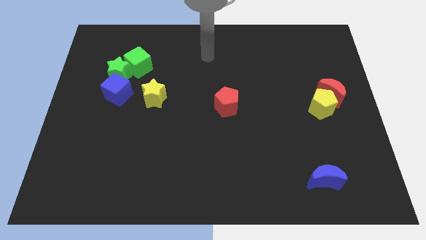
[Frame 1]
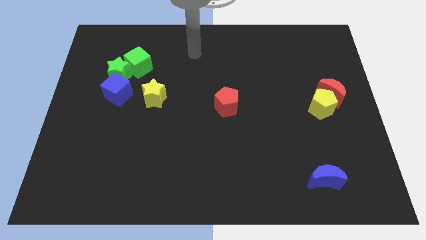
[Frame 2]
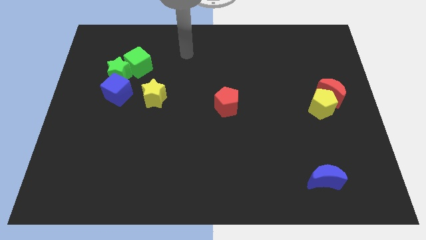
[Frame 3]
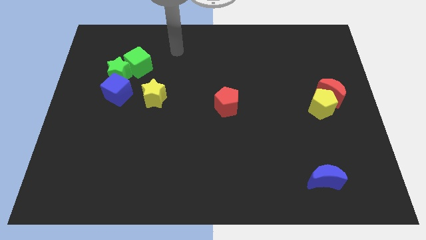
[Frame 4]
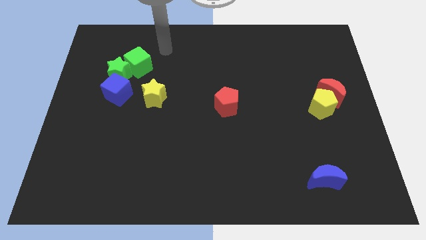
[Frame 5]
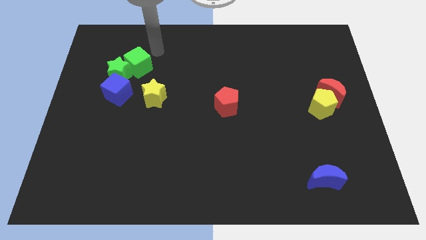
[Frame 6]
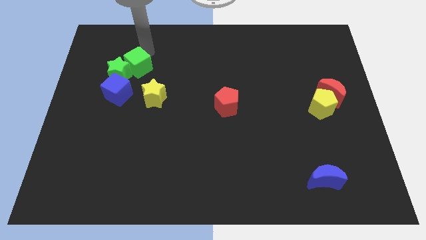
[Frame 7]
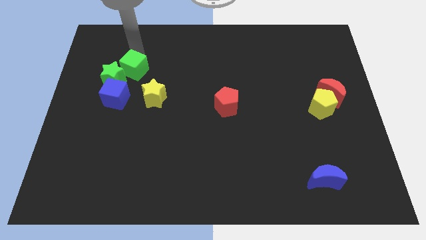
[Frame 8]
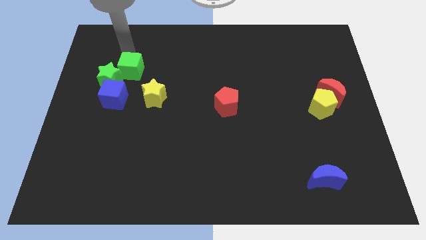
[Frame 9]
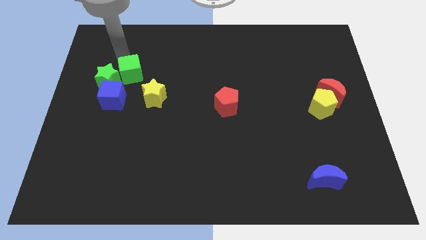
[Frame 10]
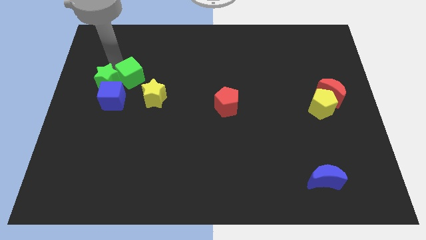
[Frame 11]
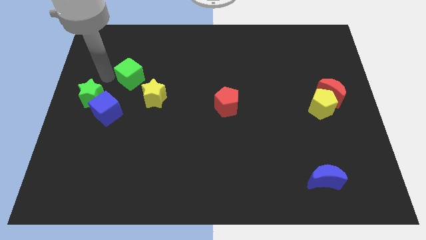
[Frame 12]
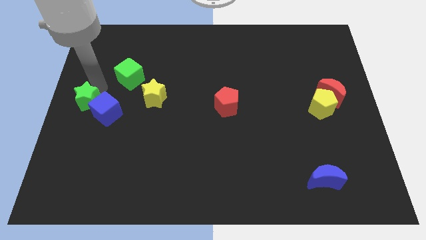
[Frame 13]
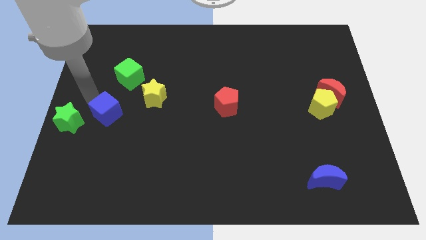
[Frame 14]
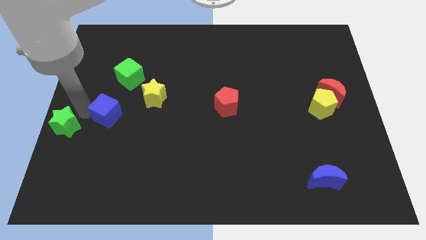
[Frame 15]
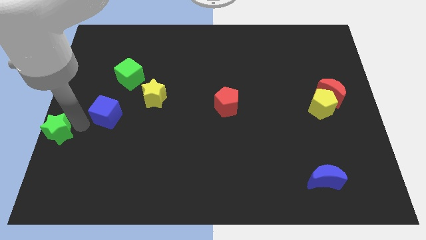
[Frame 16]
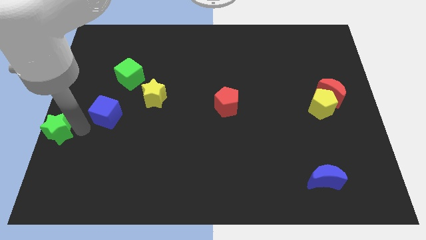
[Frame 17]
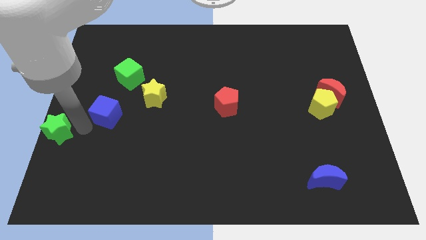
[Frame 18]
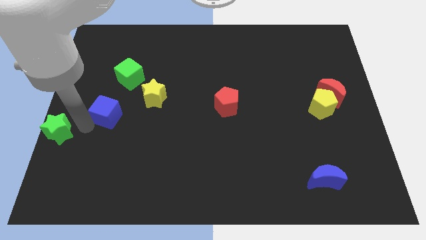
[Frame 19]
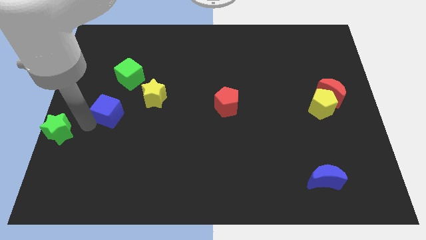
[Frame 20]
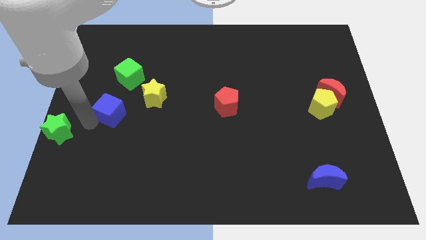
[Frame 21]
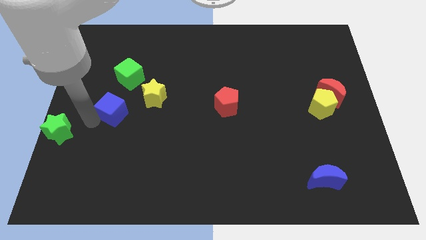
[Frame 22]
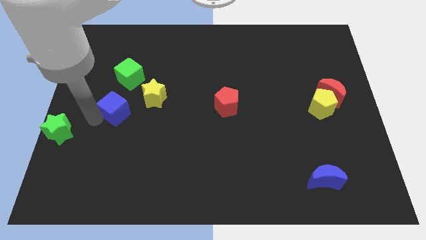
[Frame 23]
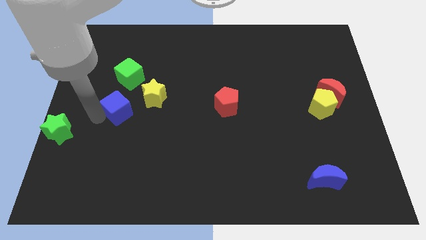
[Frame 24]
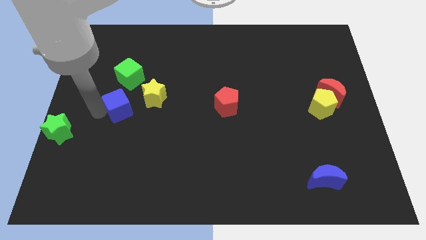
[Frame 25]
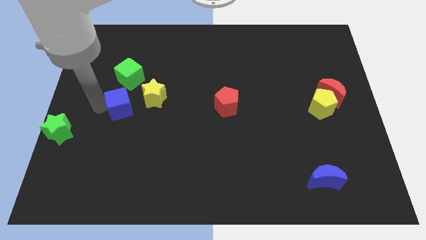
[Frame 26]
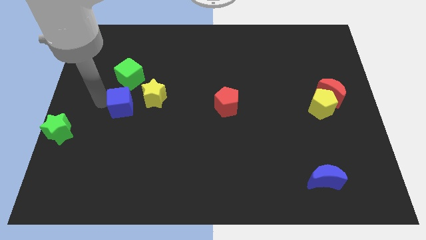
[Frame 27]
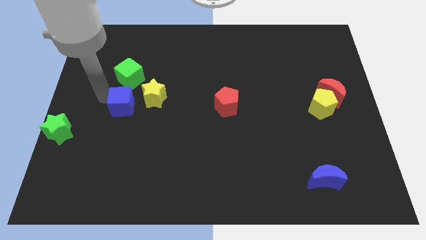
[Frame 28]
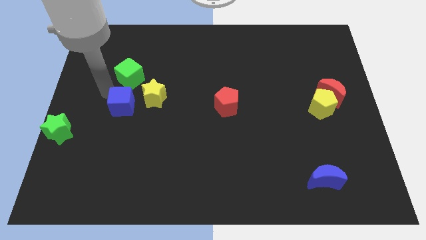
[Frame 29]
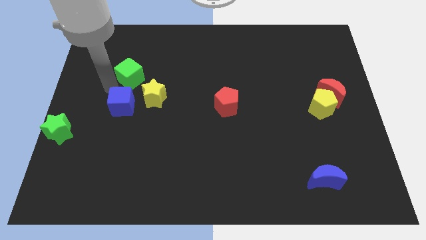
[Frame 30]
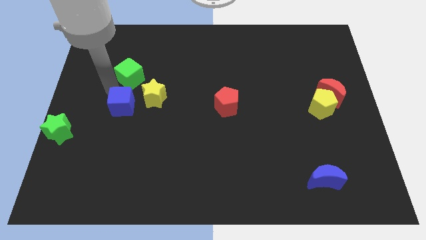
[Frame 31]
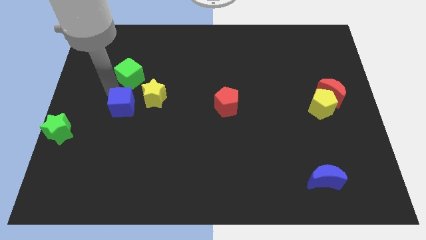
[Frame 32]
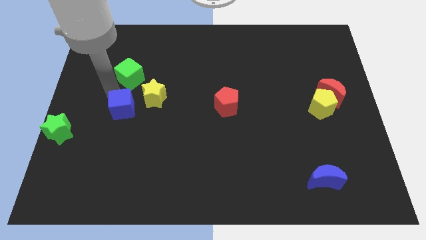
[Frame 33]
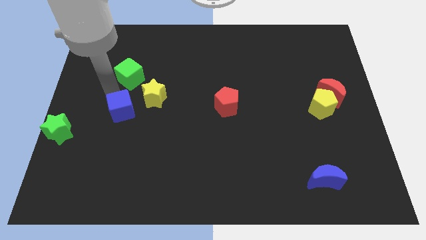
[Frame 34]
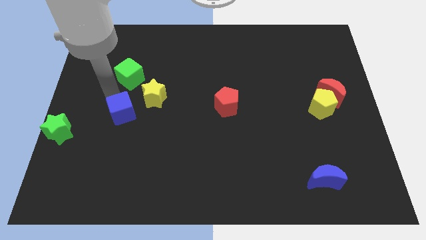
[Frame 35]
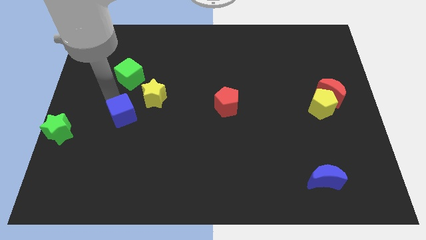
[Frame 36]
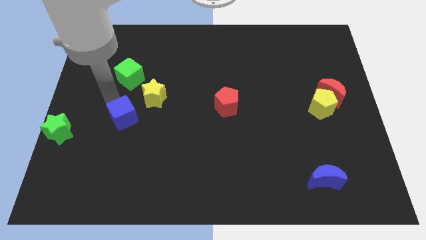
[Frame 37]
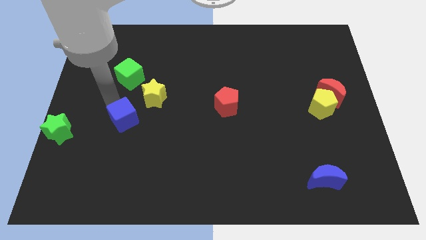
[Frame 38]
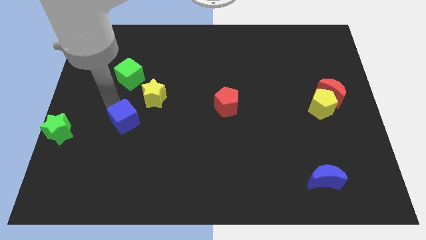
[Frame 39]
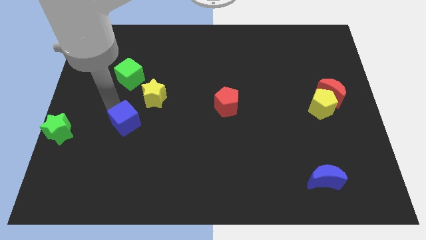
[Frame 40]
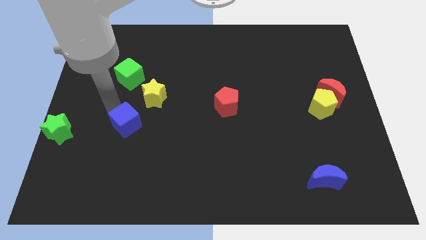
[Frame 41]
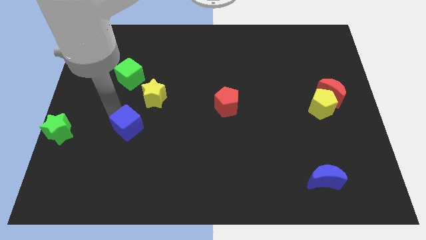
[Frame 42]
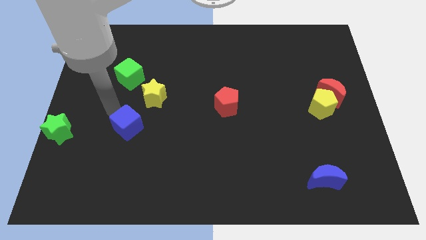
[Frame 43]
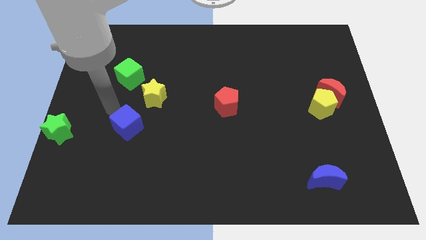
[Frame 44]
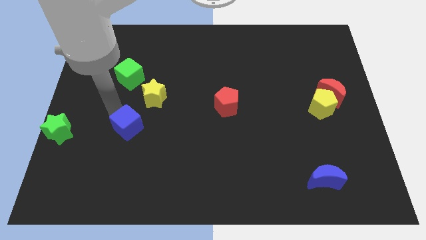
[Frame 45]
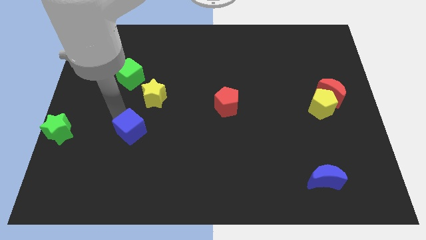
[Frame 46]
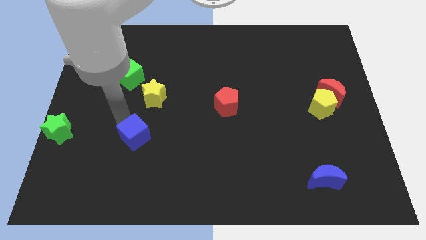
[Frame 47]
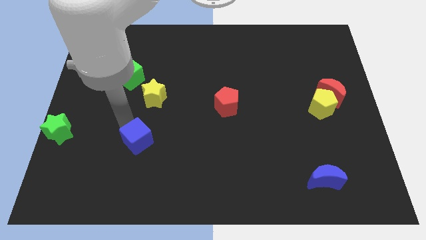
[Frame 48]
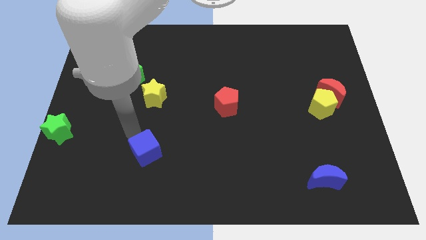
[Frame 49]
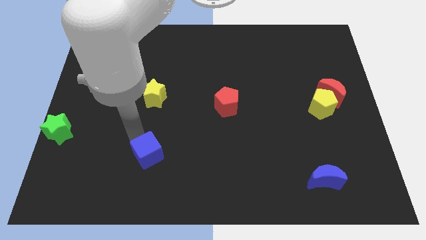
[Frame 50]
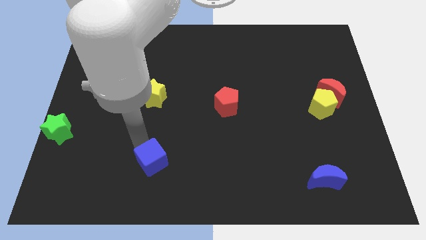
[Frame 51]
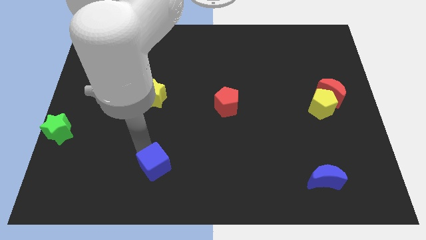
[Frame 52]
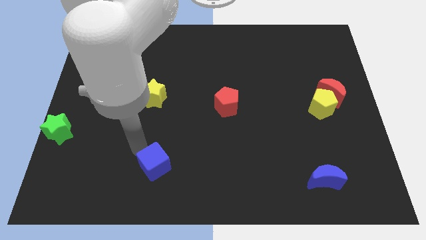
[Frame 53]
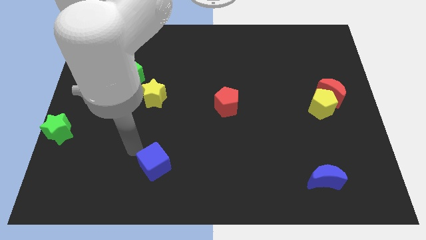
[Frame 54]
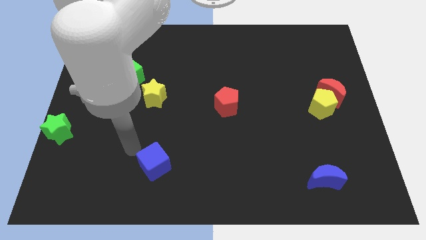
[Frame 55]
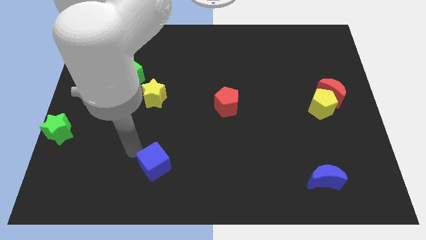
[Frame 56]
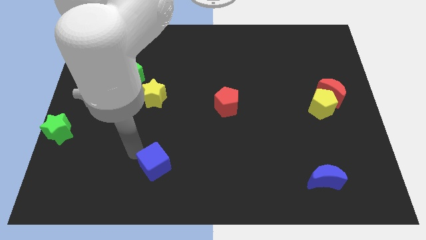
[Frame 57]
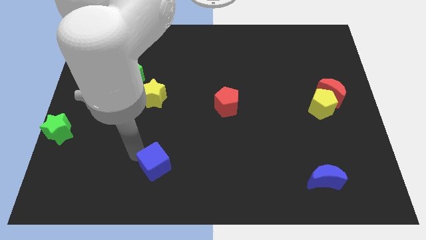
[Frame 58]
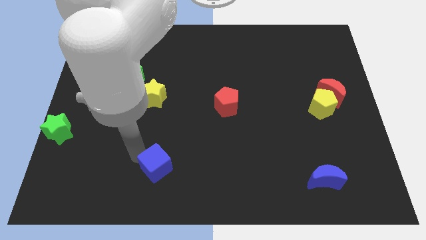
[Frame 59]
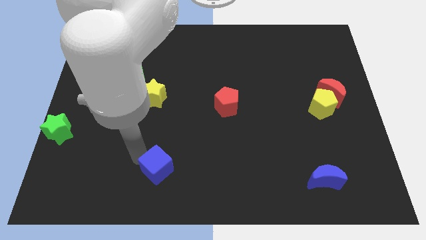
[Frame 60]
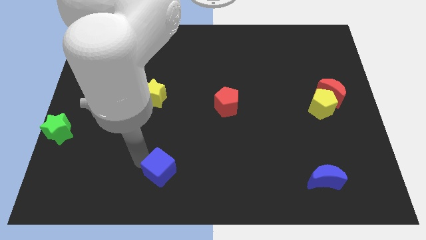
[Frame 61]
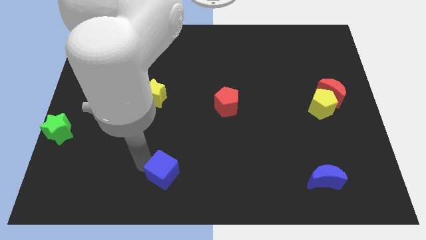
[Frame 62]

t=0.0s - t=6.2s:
move the blue cube to the bottom

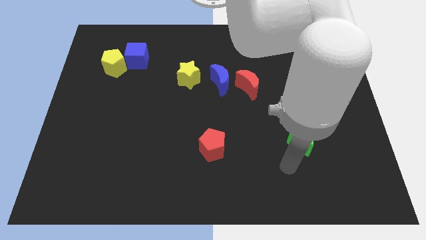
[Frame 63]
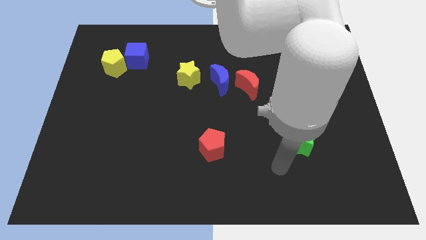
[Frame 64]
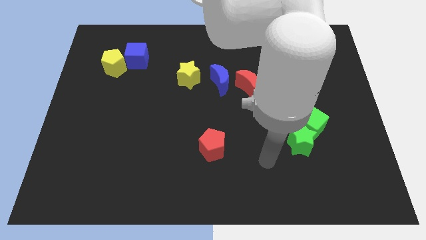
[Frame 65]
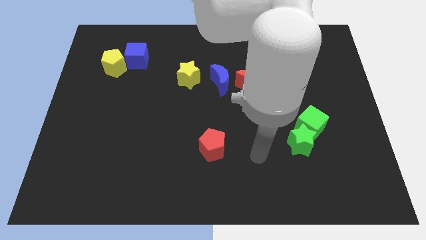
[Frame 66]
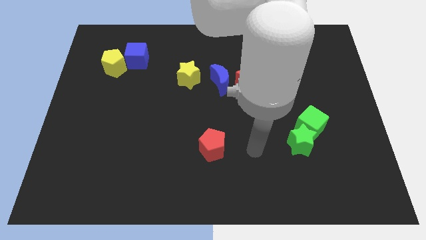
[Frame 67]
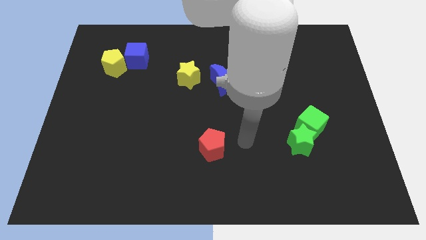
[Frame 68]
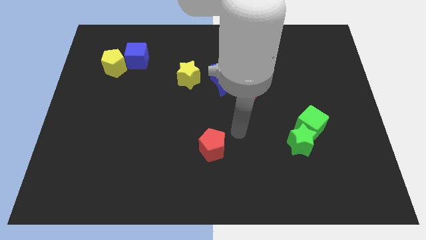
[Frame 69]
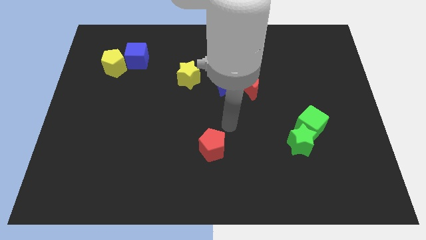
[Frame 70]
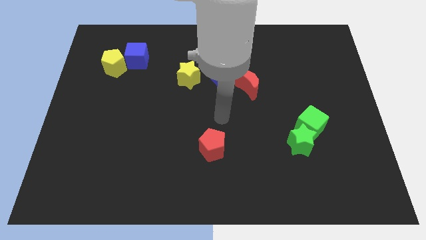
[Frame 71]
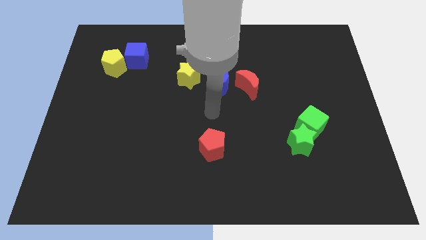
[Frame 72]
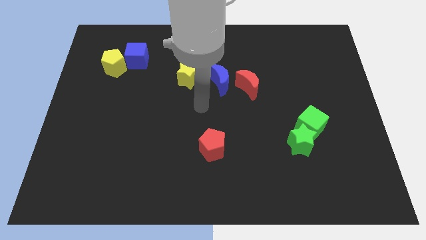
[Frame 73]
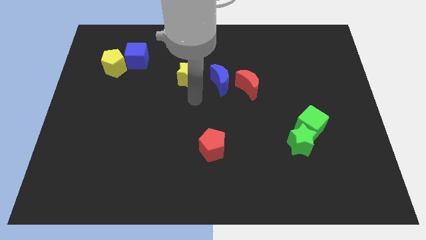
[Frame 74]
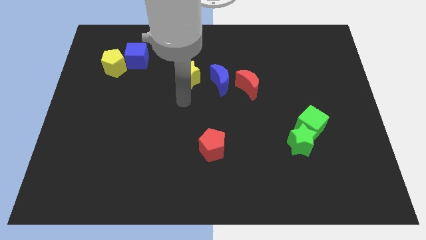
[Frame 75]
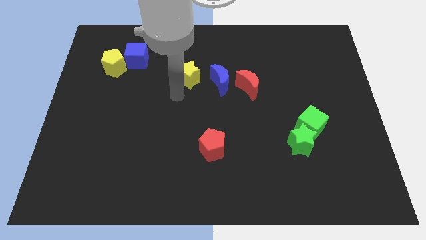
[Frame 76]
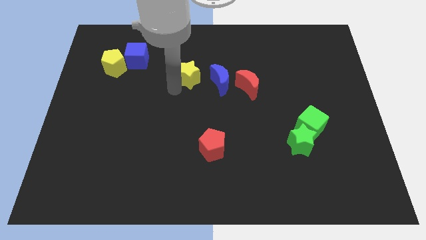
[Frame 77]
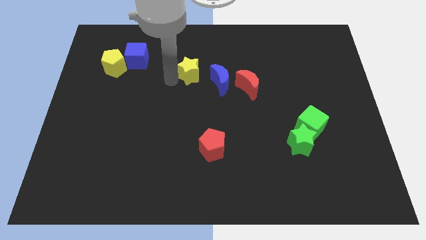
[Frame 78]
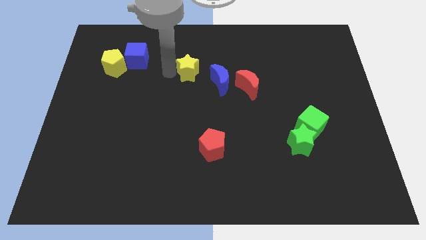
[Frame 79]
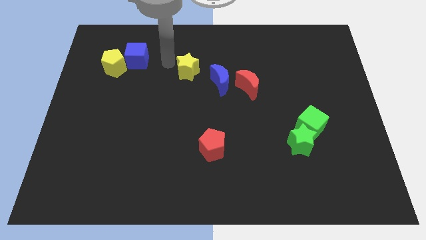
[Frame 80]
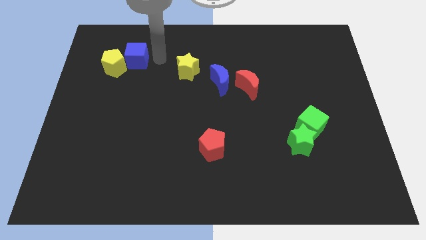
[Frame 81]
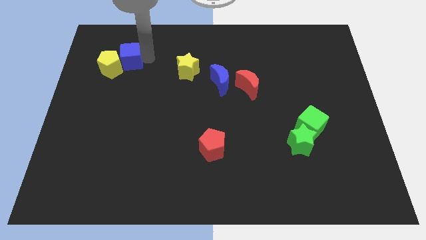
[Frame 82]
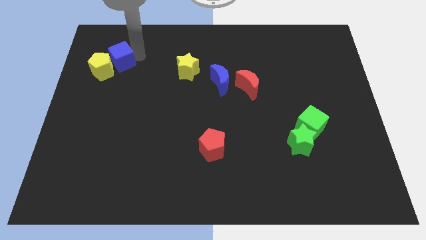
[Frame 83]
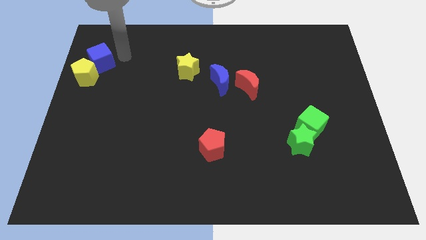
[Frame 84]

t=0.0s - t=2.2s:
put the yellow pentagon to the center left
